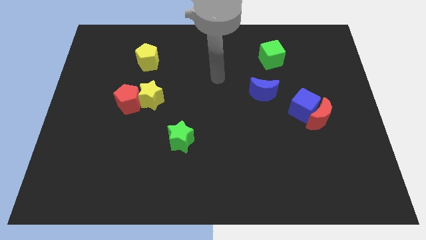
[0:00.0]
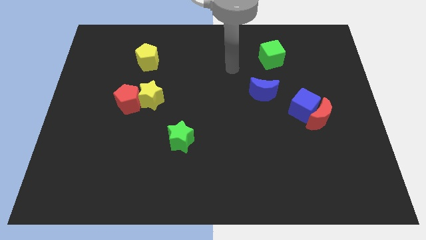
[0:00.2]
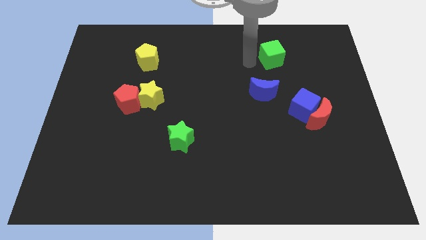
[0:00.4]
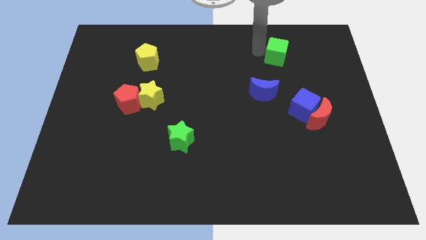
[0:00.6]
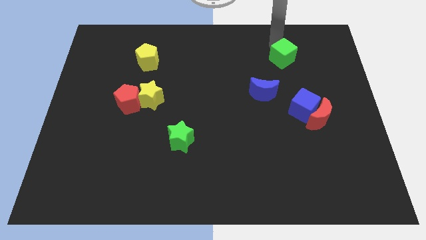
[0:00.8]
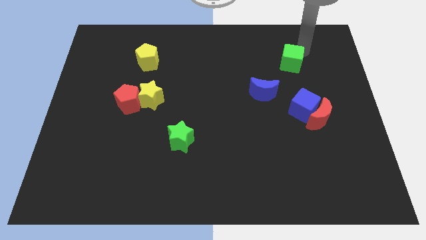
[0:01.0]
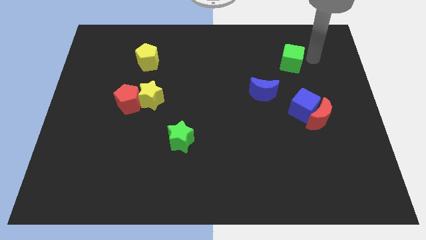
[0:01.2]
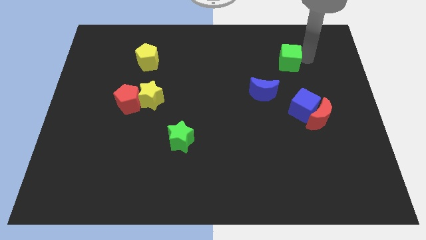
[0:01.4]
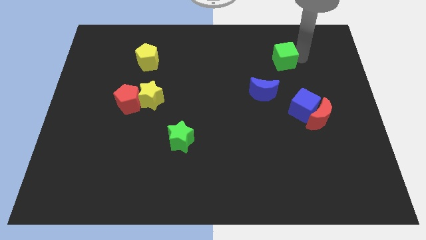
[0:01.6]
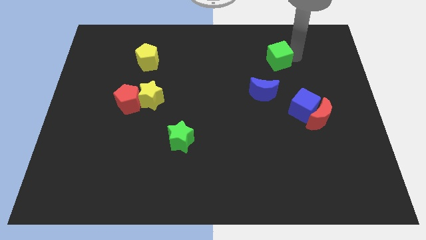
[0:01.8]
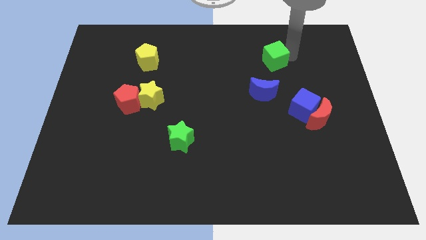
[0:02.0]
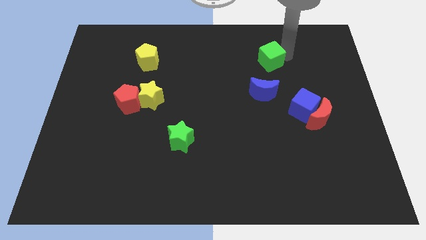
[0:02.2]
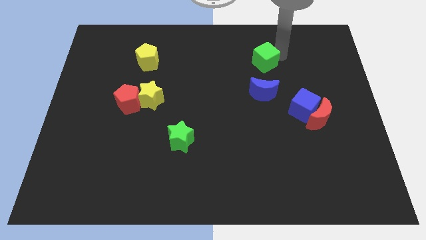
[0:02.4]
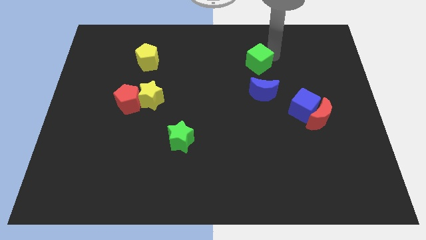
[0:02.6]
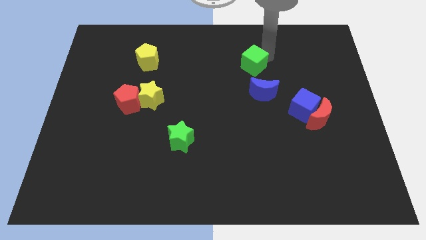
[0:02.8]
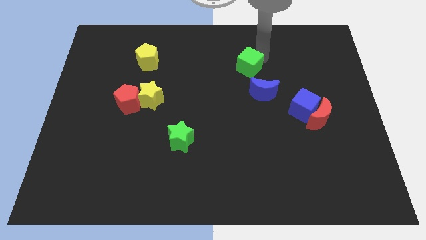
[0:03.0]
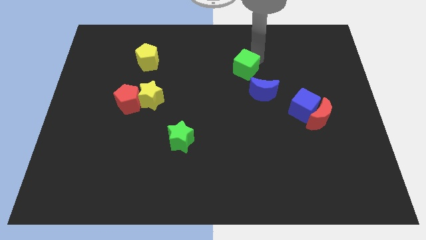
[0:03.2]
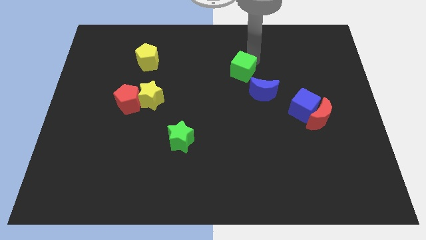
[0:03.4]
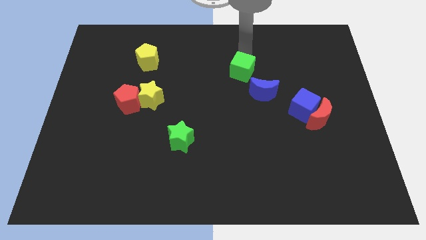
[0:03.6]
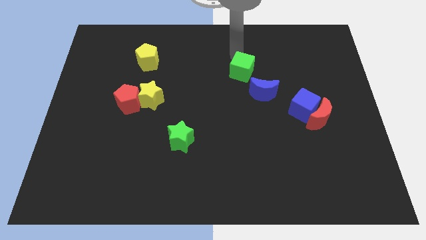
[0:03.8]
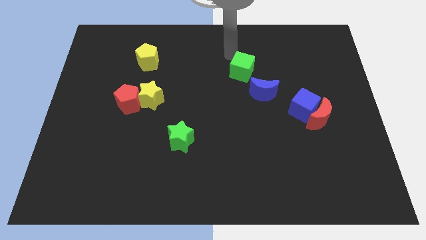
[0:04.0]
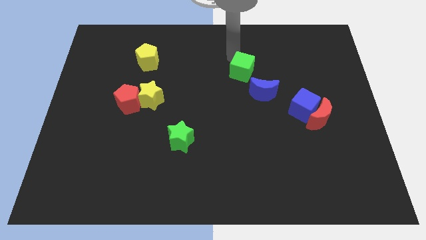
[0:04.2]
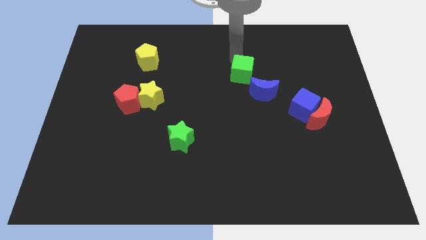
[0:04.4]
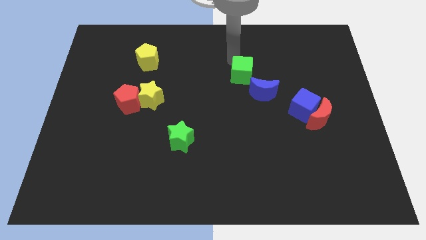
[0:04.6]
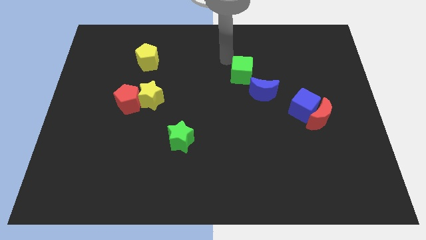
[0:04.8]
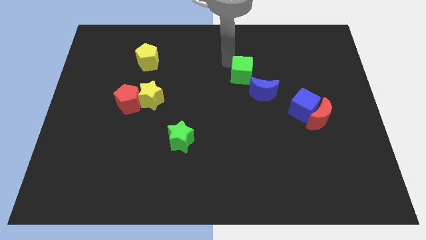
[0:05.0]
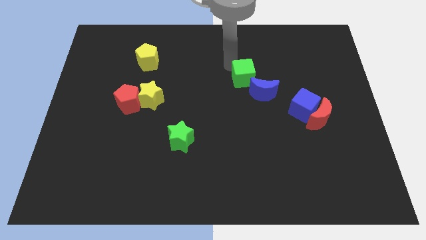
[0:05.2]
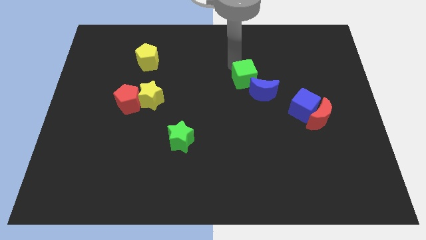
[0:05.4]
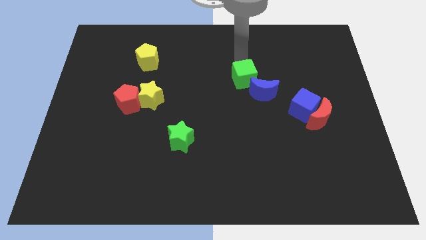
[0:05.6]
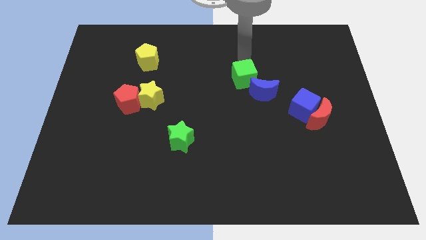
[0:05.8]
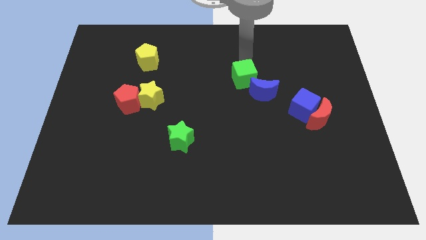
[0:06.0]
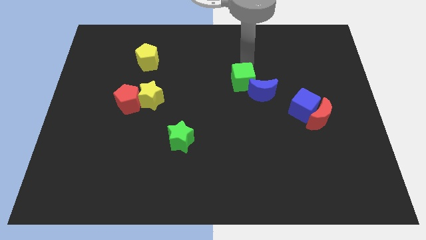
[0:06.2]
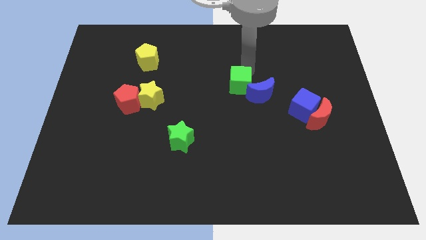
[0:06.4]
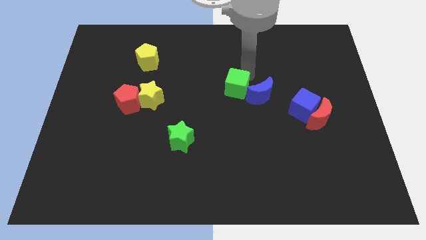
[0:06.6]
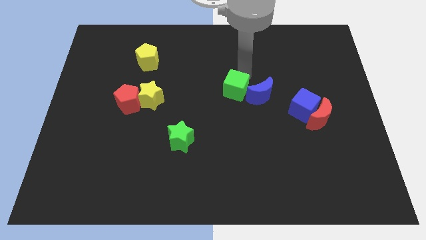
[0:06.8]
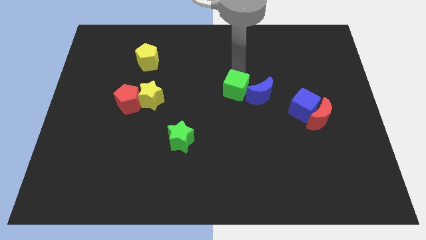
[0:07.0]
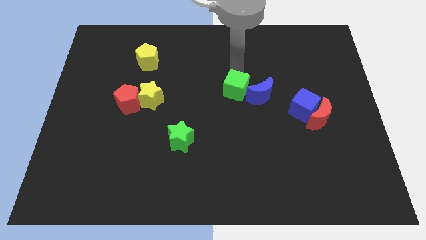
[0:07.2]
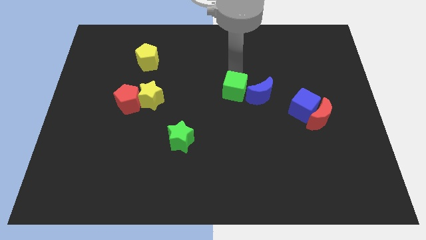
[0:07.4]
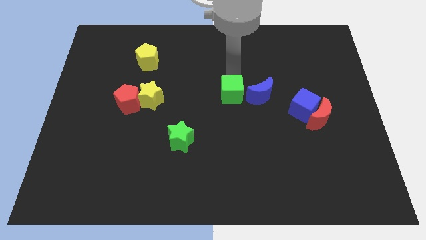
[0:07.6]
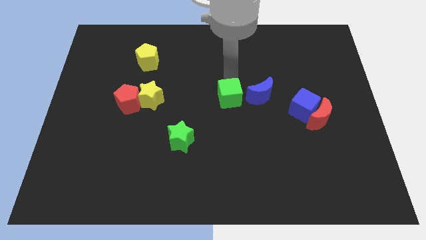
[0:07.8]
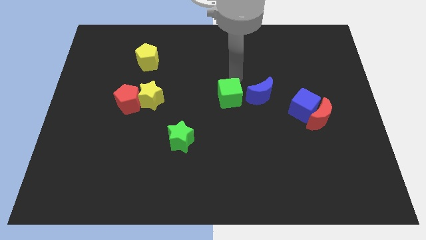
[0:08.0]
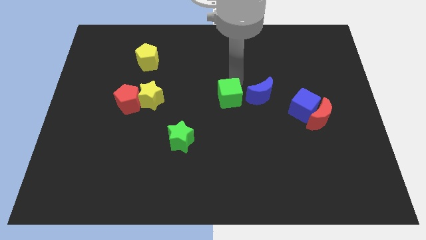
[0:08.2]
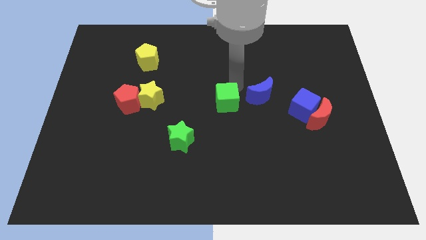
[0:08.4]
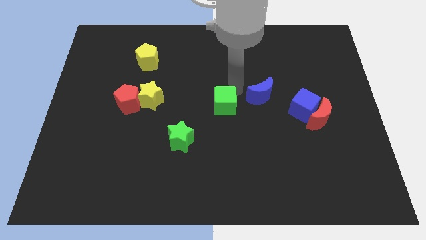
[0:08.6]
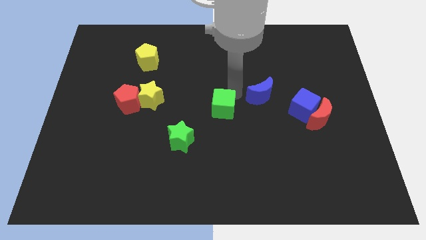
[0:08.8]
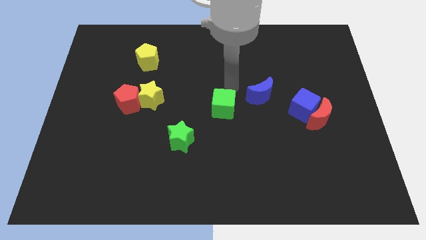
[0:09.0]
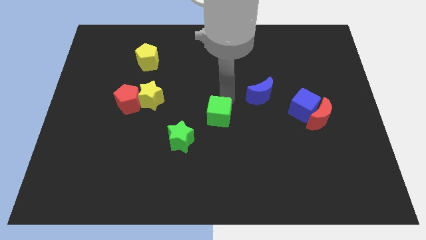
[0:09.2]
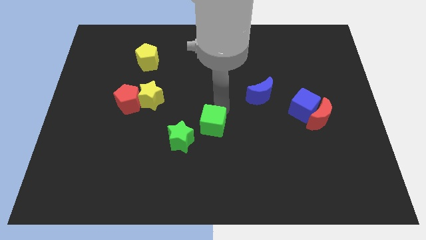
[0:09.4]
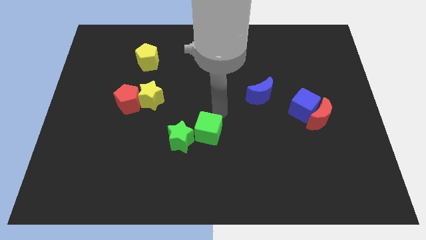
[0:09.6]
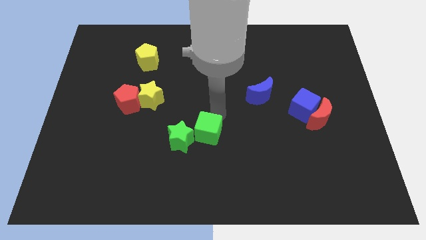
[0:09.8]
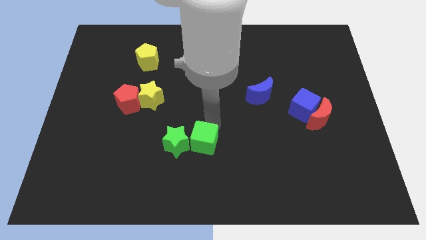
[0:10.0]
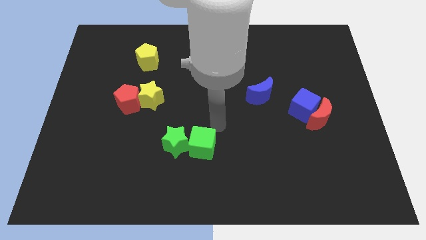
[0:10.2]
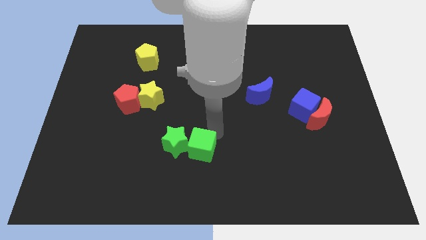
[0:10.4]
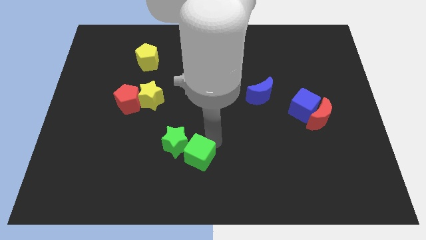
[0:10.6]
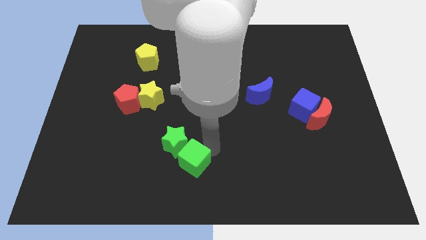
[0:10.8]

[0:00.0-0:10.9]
put the green cube to the bottom side of the green star

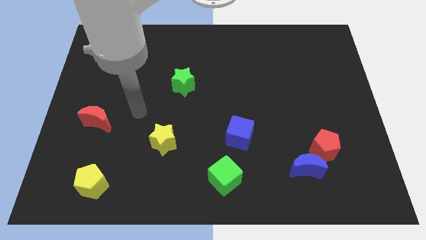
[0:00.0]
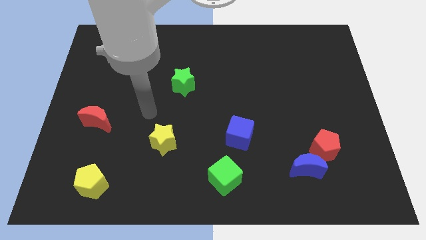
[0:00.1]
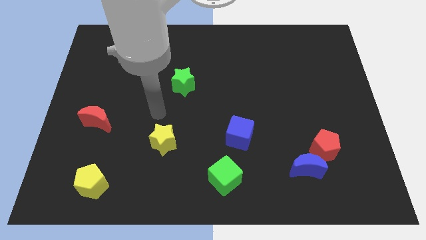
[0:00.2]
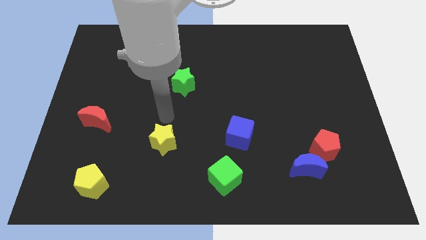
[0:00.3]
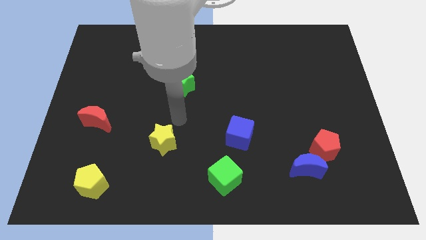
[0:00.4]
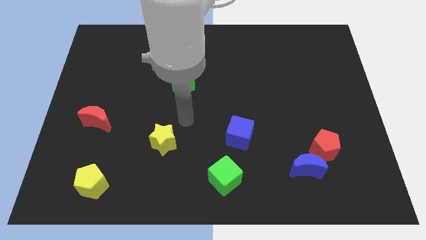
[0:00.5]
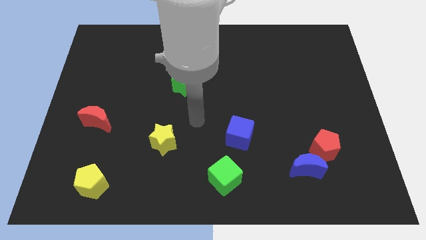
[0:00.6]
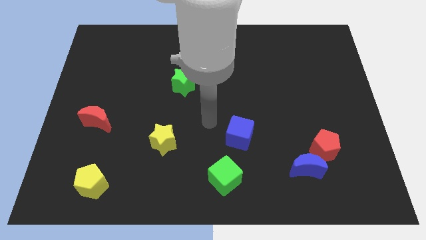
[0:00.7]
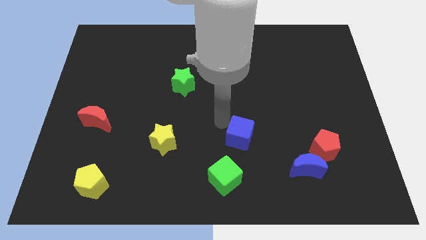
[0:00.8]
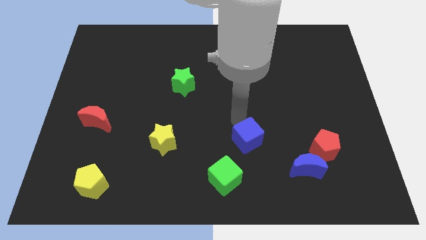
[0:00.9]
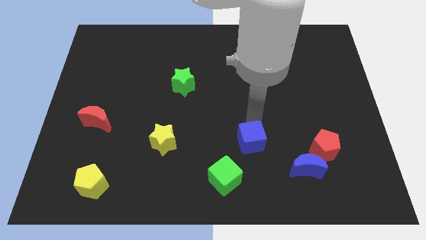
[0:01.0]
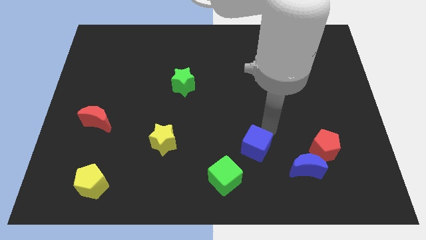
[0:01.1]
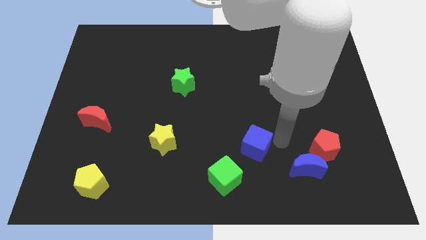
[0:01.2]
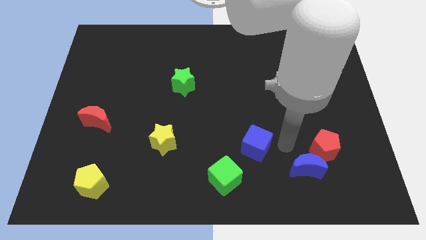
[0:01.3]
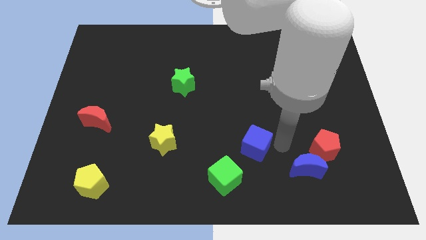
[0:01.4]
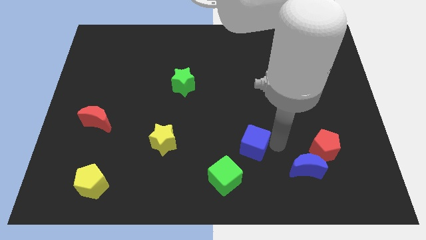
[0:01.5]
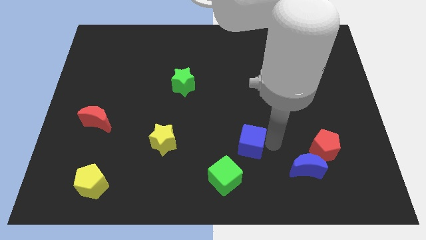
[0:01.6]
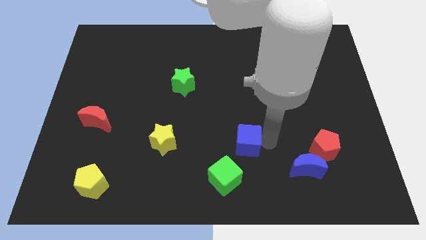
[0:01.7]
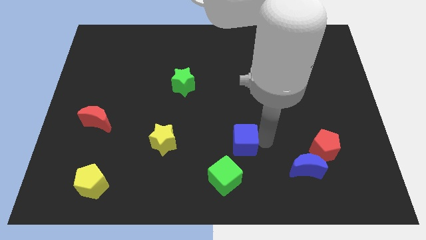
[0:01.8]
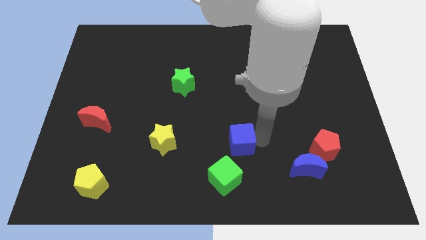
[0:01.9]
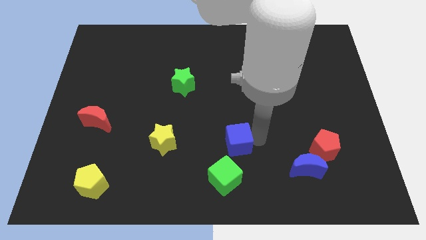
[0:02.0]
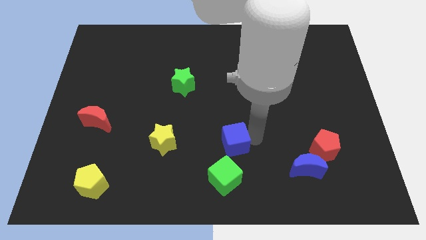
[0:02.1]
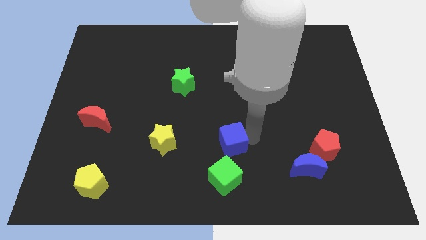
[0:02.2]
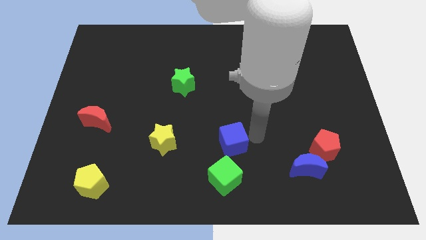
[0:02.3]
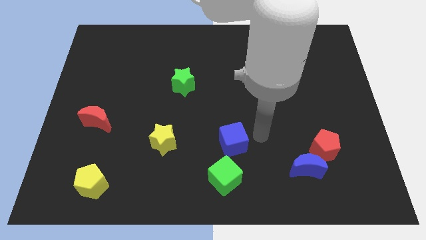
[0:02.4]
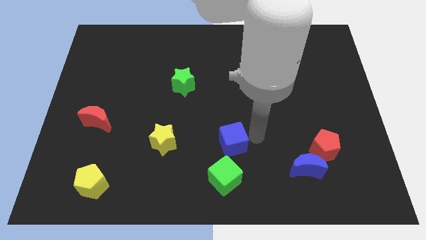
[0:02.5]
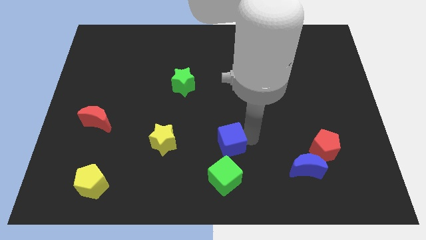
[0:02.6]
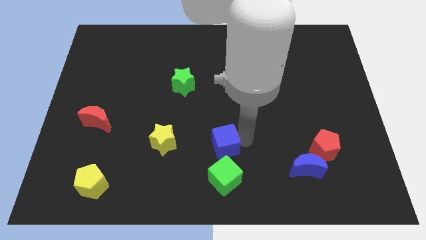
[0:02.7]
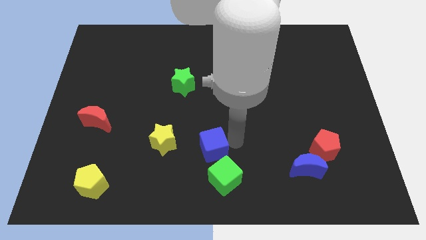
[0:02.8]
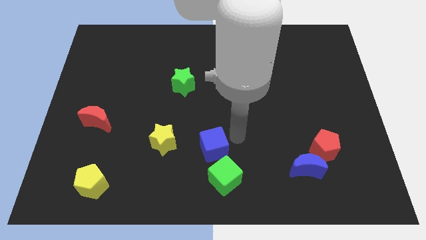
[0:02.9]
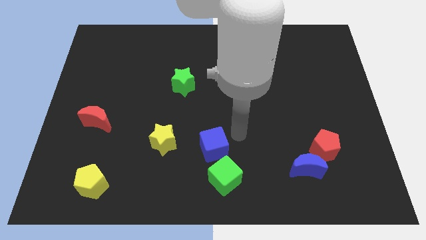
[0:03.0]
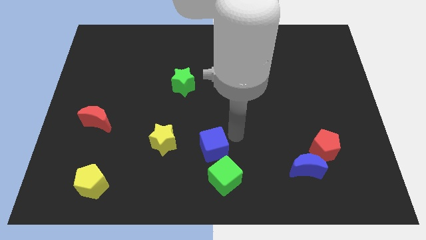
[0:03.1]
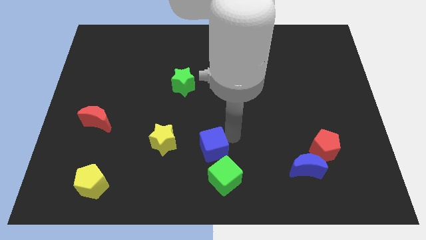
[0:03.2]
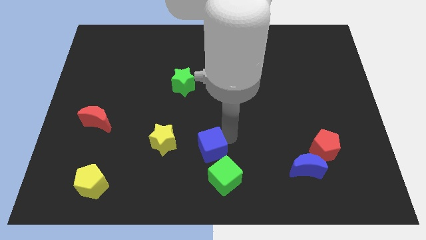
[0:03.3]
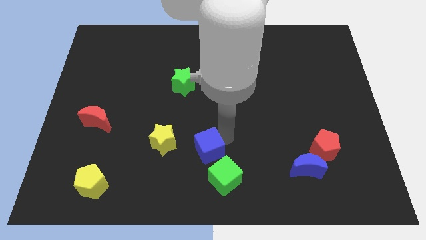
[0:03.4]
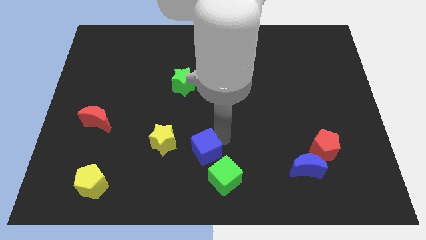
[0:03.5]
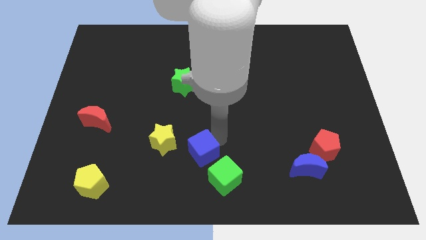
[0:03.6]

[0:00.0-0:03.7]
slide the blue cube diagonally down and to the right of the yellow star
